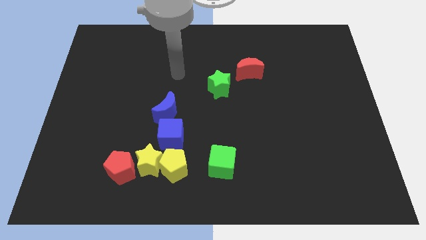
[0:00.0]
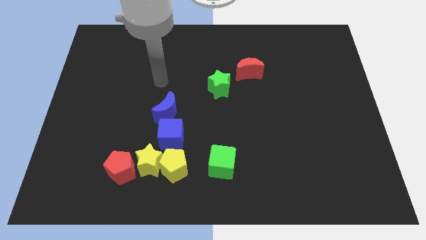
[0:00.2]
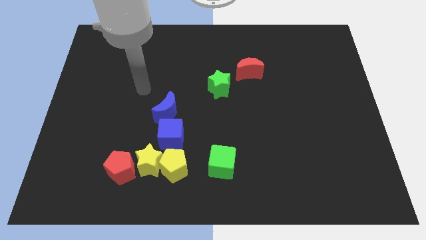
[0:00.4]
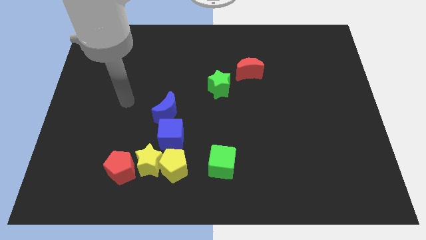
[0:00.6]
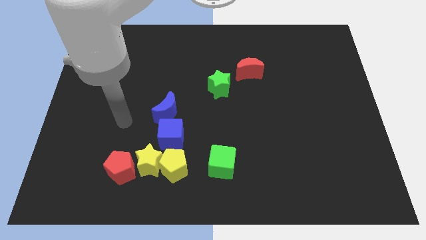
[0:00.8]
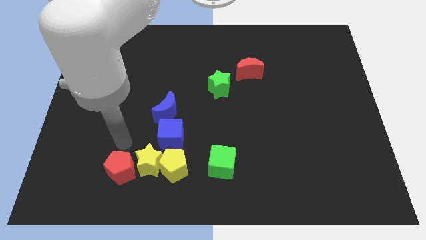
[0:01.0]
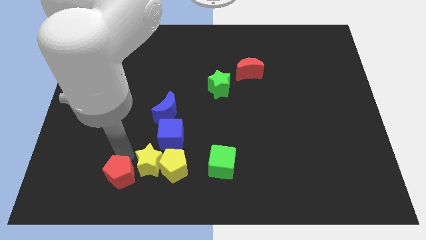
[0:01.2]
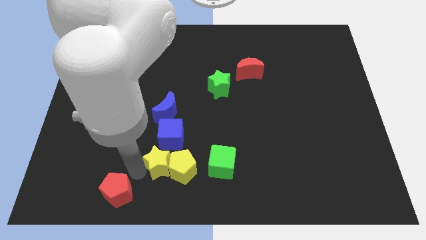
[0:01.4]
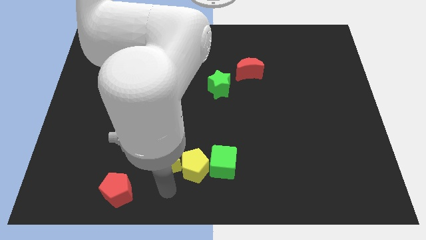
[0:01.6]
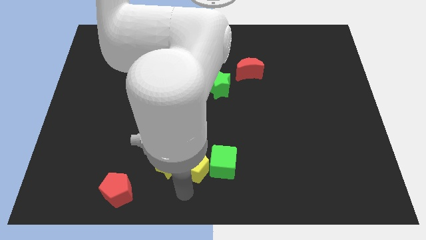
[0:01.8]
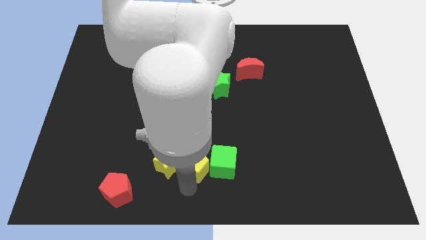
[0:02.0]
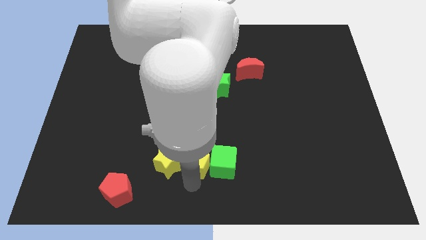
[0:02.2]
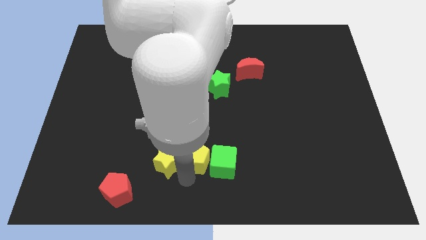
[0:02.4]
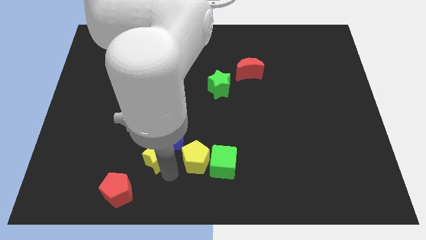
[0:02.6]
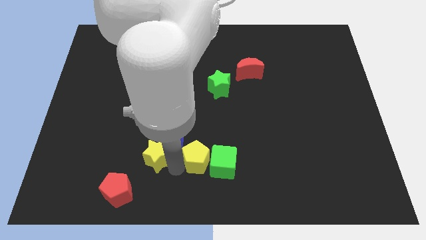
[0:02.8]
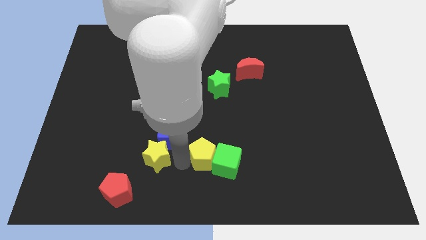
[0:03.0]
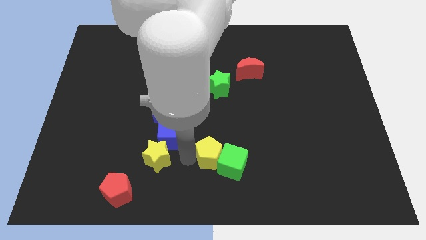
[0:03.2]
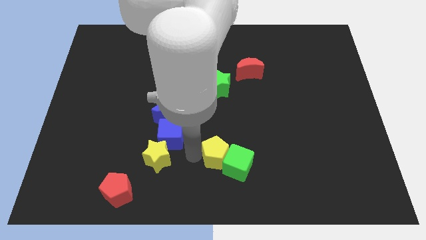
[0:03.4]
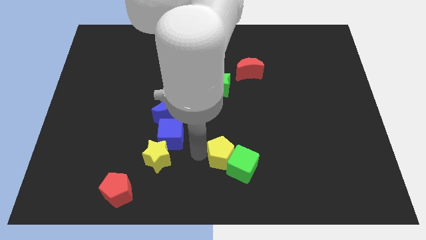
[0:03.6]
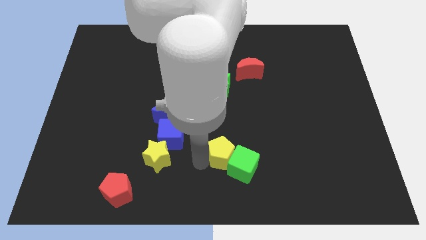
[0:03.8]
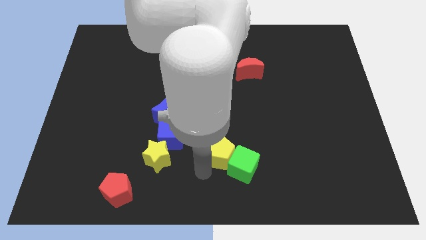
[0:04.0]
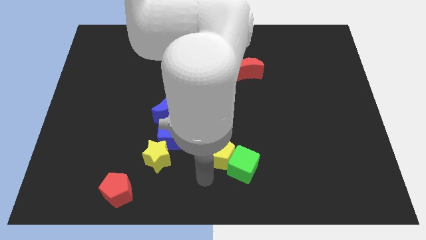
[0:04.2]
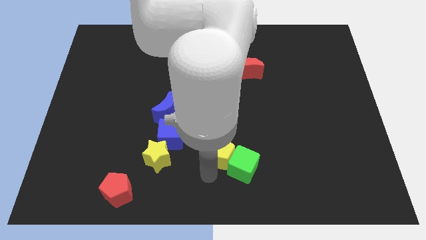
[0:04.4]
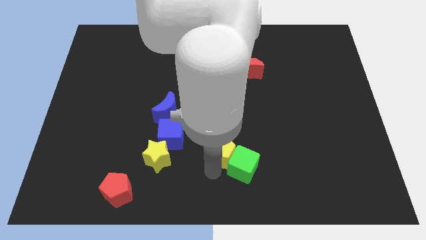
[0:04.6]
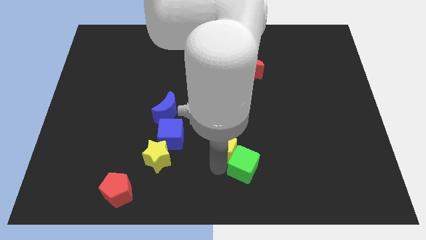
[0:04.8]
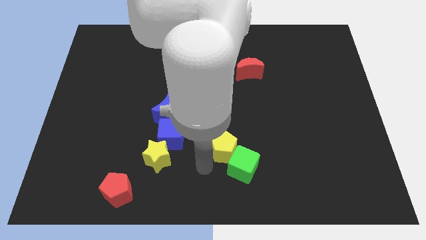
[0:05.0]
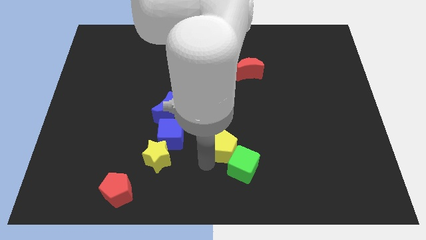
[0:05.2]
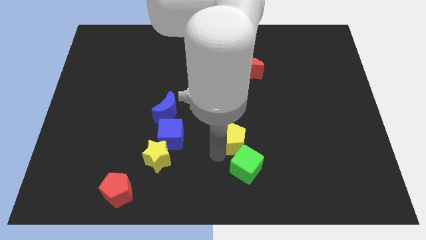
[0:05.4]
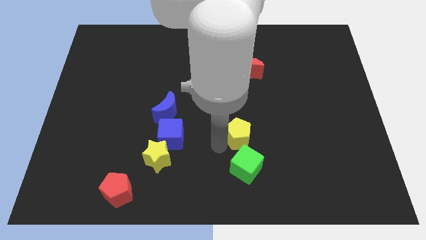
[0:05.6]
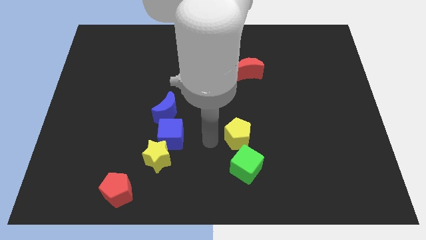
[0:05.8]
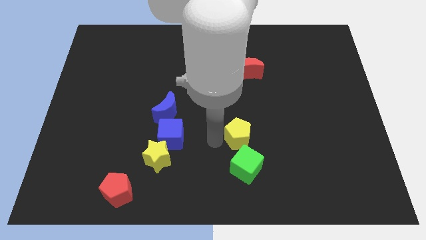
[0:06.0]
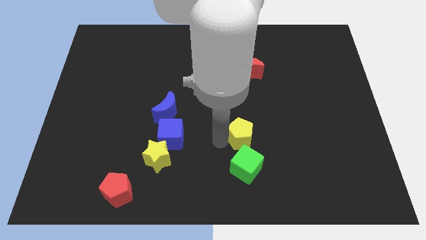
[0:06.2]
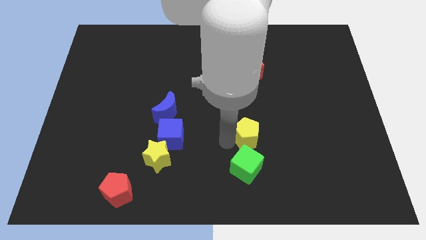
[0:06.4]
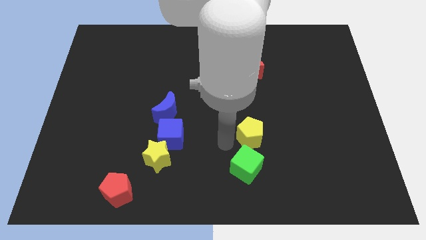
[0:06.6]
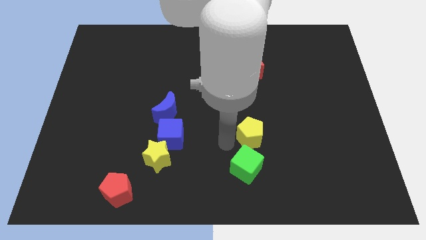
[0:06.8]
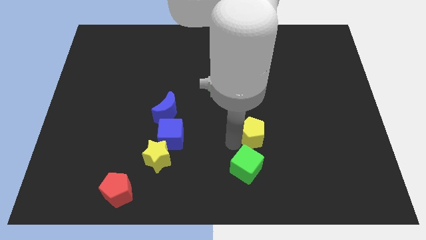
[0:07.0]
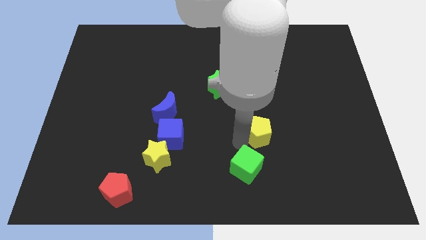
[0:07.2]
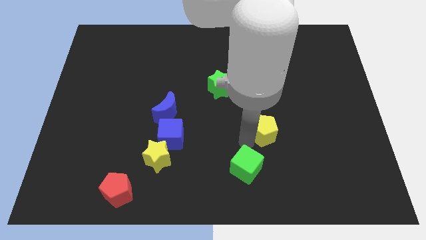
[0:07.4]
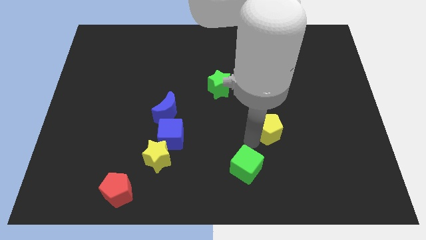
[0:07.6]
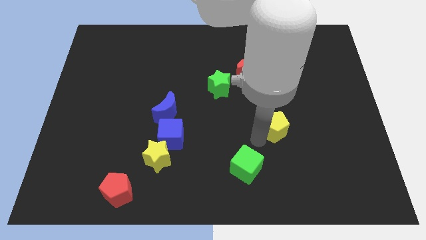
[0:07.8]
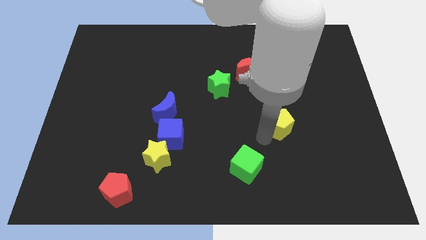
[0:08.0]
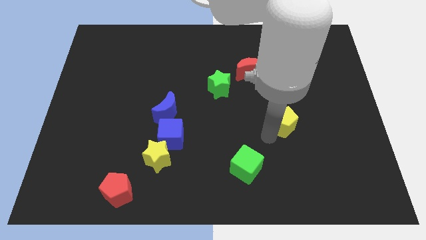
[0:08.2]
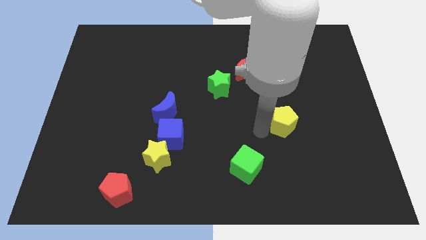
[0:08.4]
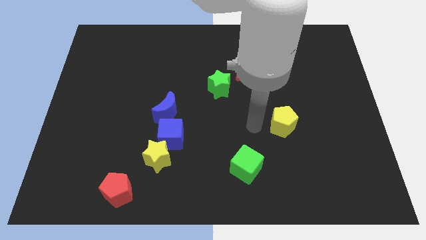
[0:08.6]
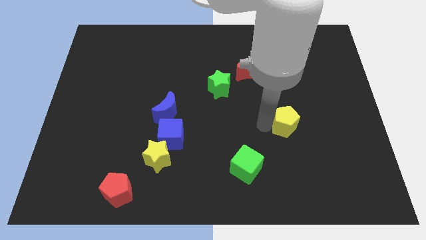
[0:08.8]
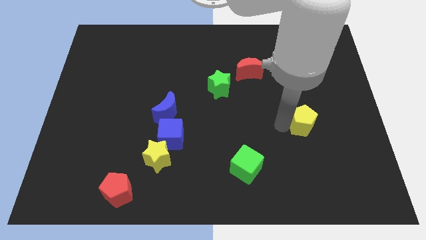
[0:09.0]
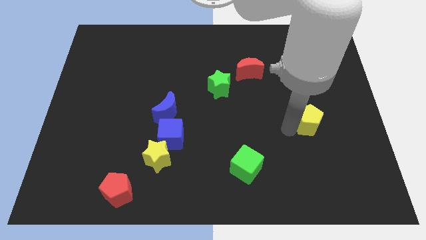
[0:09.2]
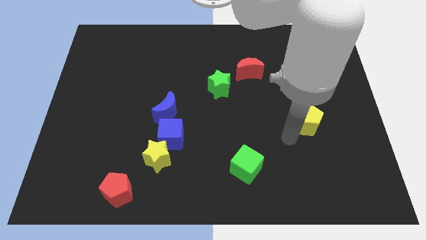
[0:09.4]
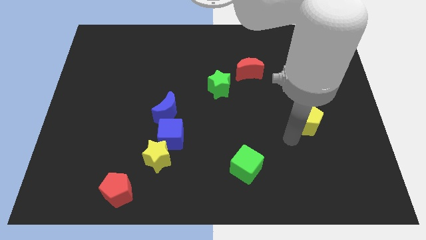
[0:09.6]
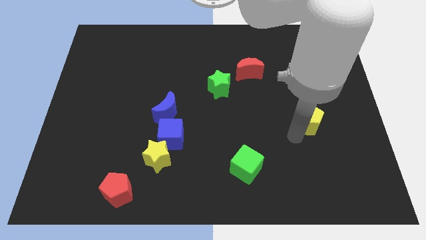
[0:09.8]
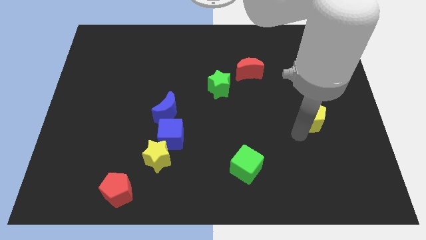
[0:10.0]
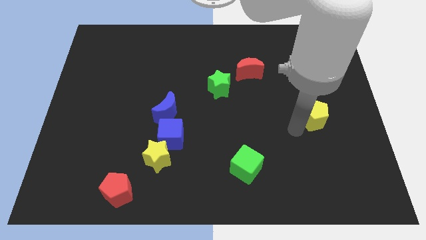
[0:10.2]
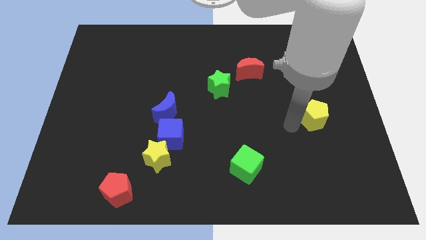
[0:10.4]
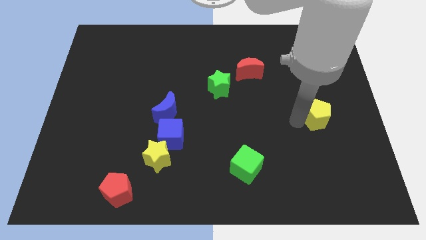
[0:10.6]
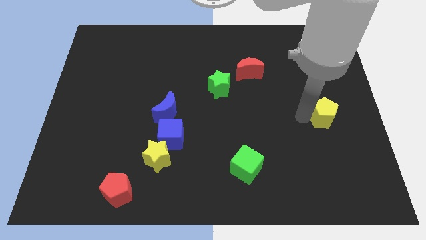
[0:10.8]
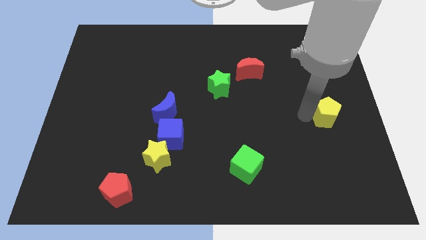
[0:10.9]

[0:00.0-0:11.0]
push the yellow pentagon to the right side

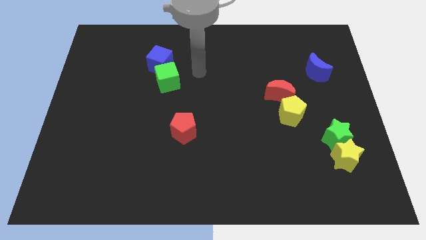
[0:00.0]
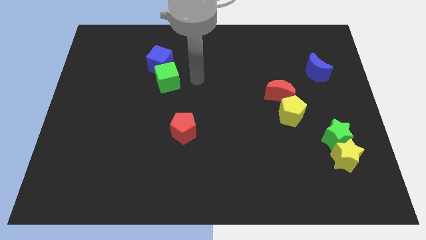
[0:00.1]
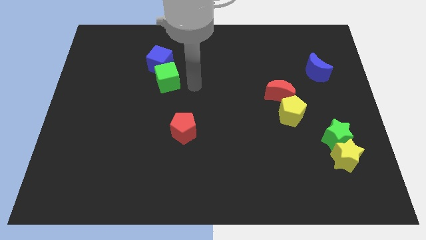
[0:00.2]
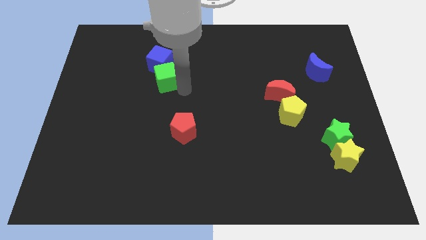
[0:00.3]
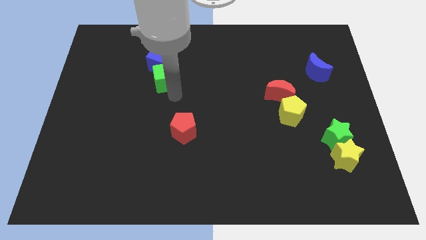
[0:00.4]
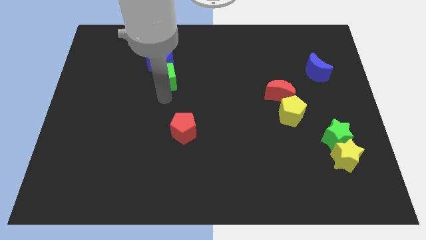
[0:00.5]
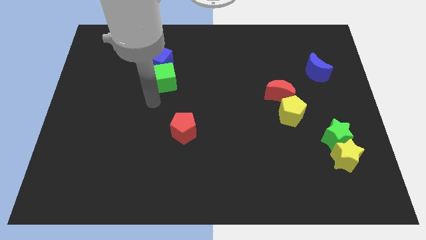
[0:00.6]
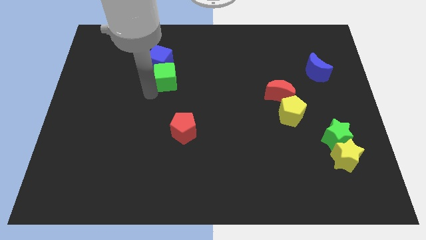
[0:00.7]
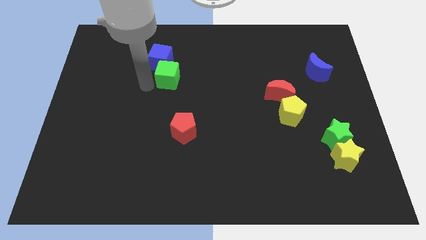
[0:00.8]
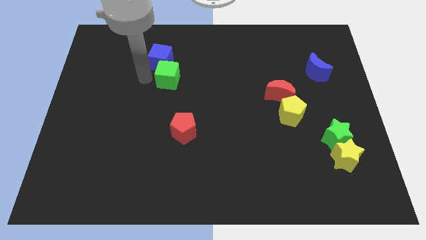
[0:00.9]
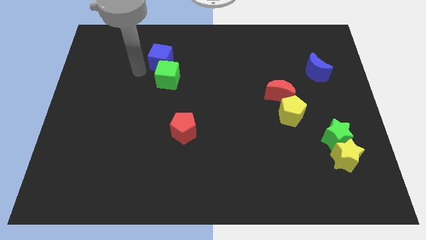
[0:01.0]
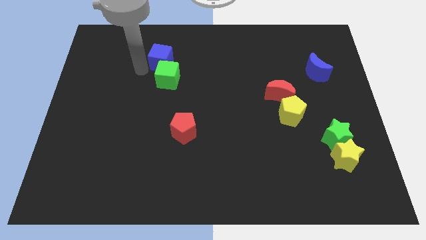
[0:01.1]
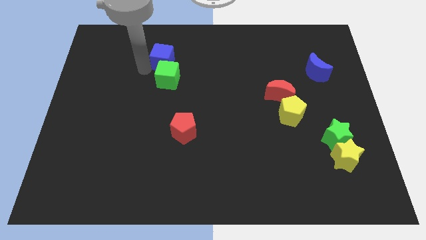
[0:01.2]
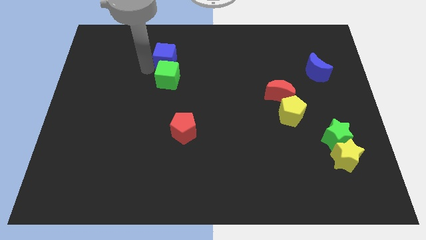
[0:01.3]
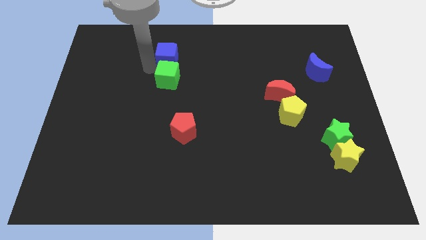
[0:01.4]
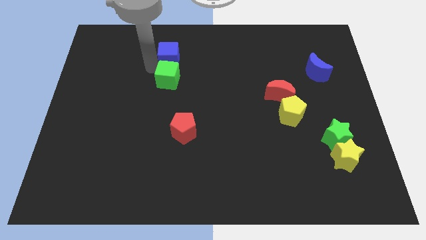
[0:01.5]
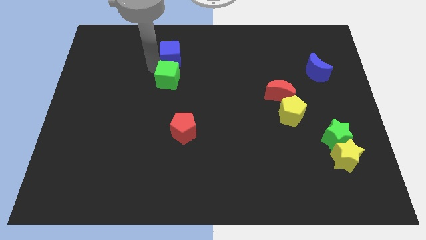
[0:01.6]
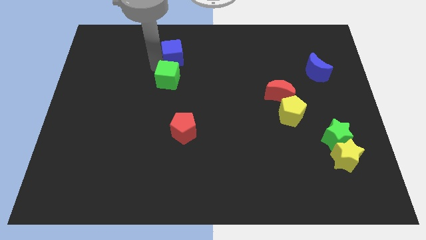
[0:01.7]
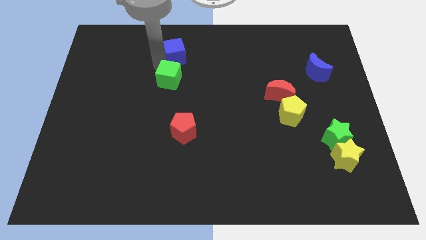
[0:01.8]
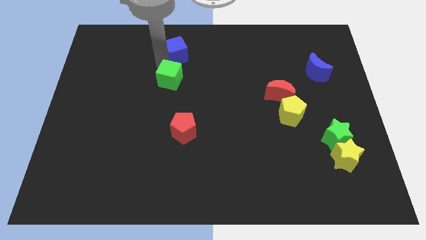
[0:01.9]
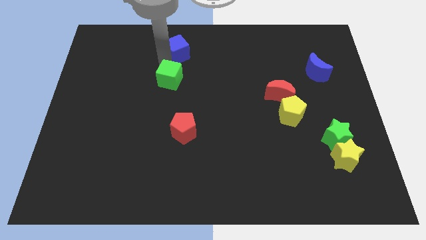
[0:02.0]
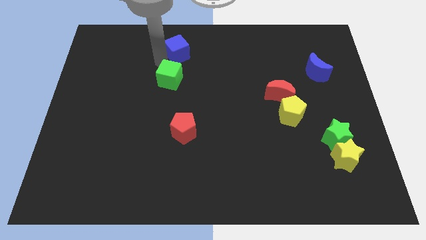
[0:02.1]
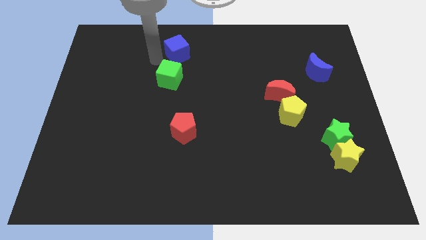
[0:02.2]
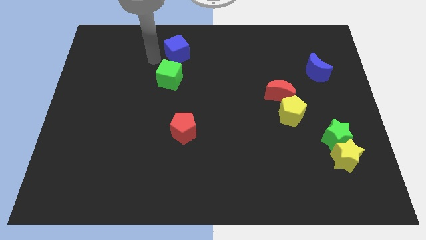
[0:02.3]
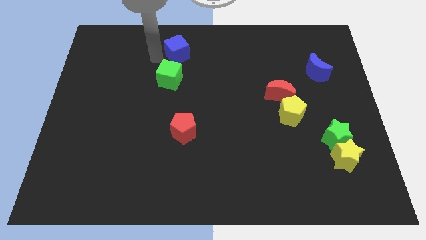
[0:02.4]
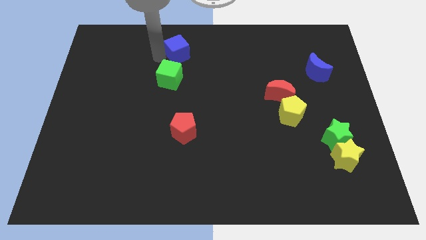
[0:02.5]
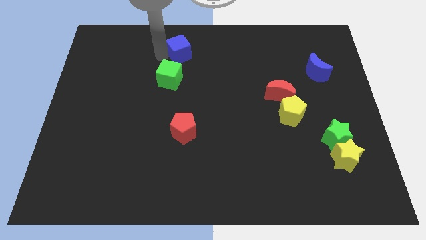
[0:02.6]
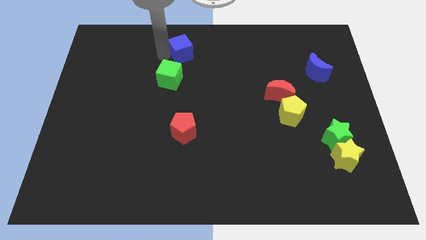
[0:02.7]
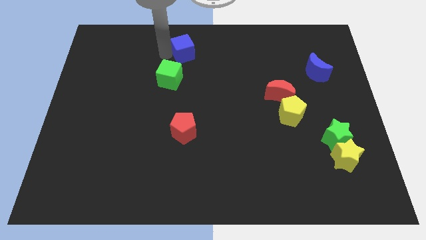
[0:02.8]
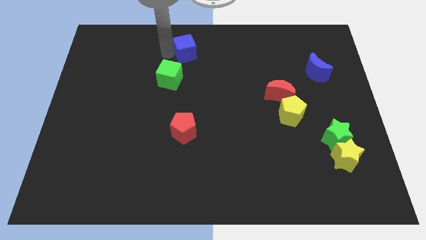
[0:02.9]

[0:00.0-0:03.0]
put the blue cube to the towards your base
